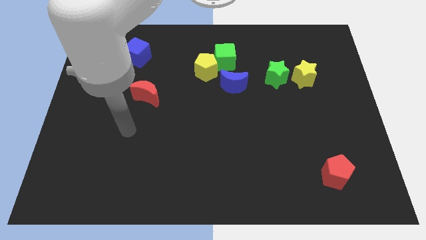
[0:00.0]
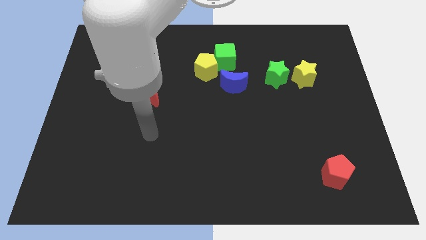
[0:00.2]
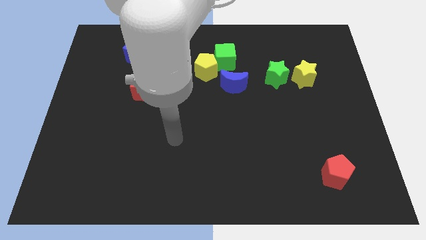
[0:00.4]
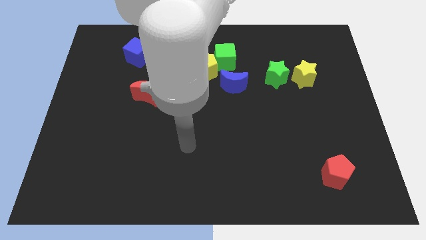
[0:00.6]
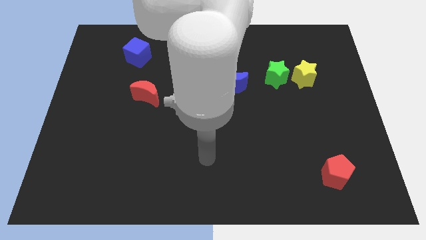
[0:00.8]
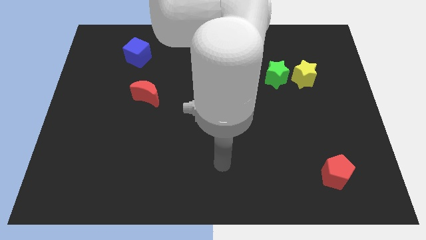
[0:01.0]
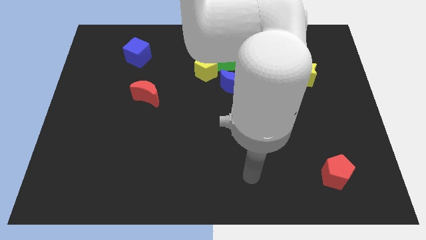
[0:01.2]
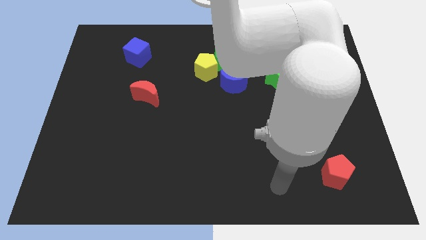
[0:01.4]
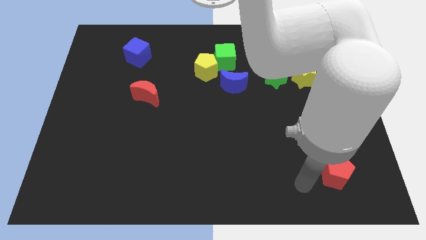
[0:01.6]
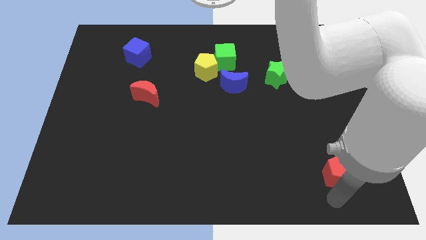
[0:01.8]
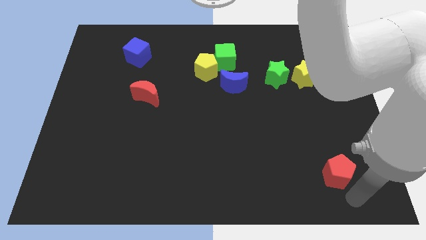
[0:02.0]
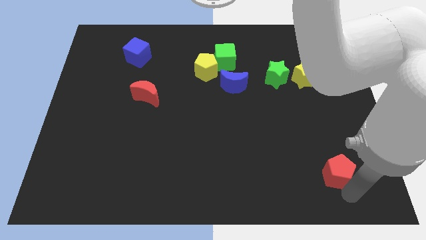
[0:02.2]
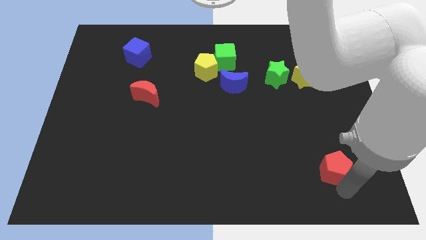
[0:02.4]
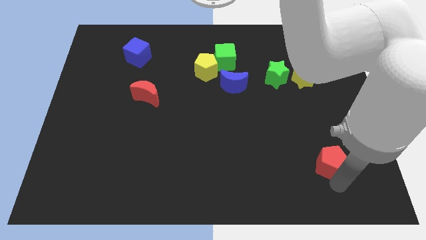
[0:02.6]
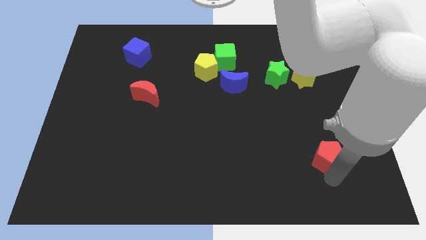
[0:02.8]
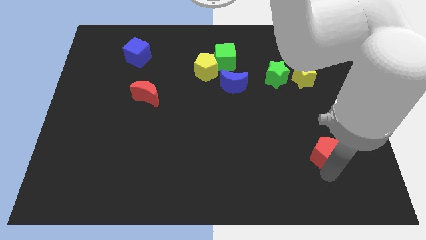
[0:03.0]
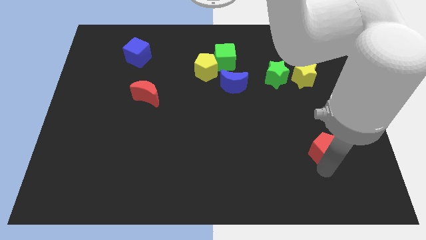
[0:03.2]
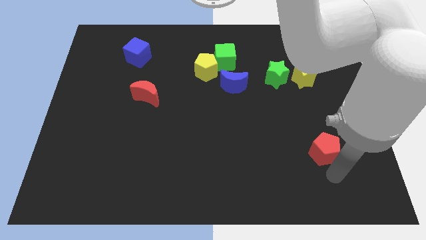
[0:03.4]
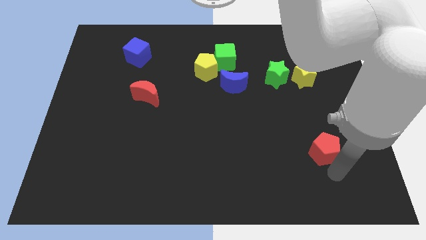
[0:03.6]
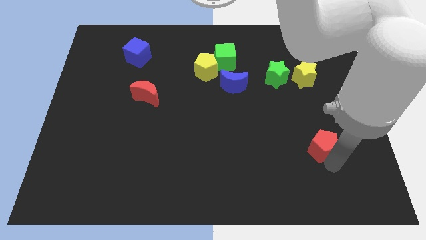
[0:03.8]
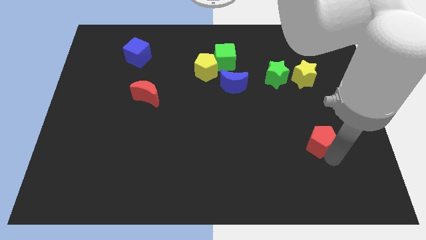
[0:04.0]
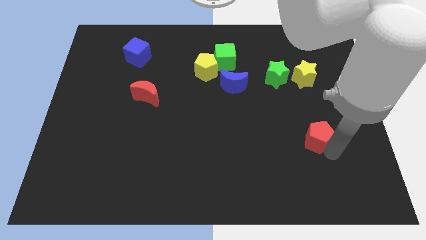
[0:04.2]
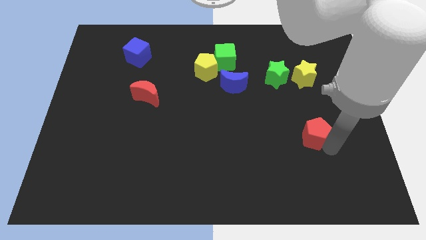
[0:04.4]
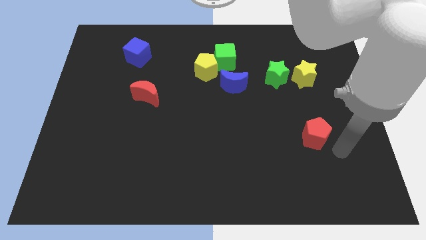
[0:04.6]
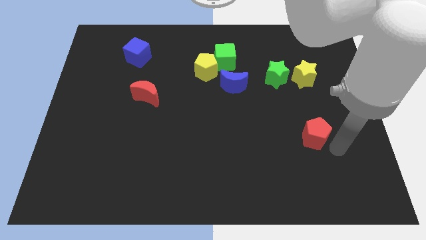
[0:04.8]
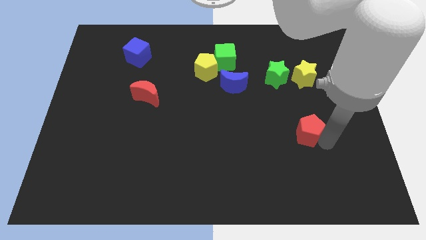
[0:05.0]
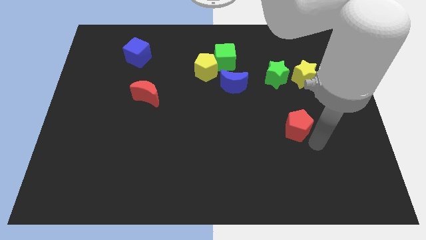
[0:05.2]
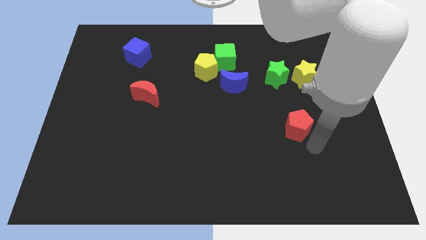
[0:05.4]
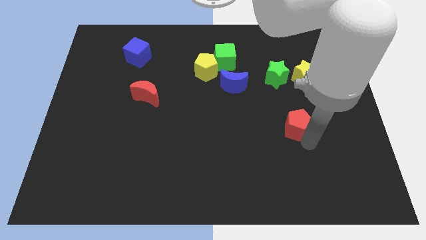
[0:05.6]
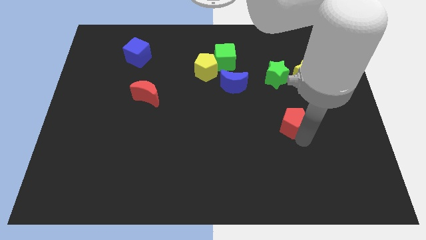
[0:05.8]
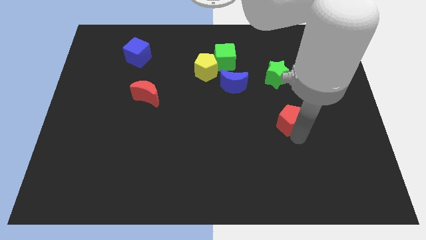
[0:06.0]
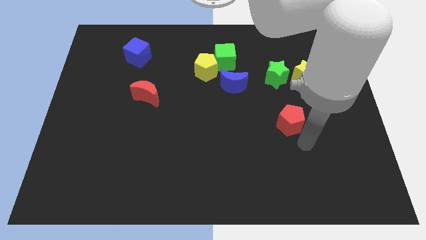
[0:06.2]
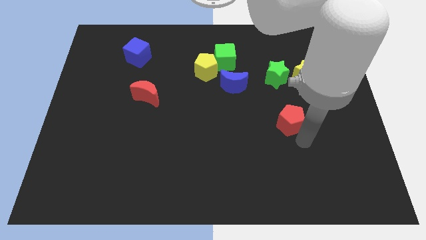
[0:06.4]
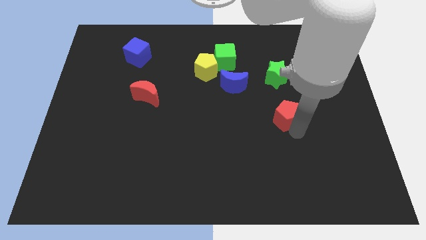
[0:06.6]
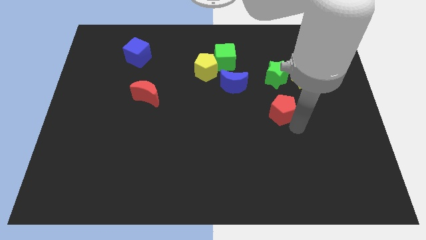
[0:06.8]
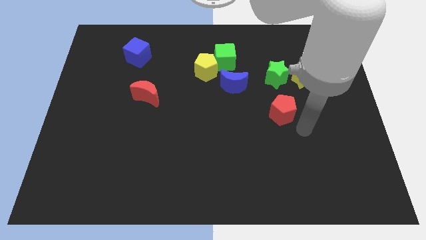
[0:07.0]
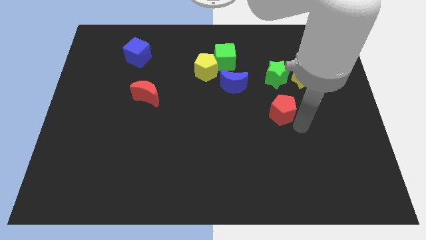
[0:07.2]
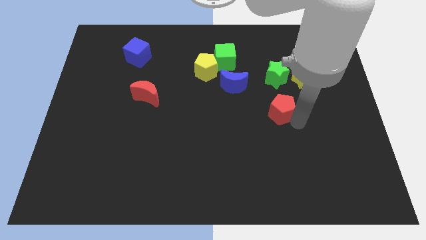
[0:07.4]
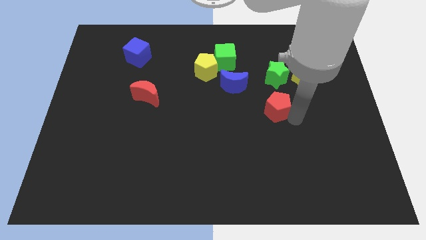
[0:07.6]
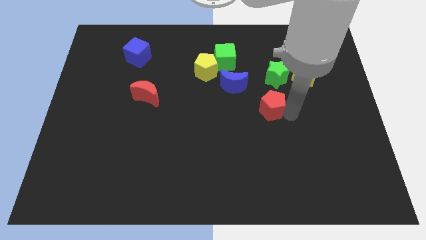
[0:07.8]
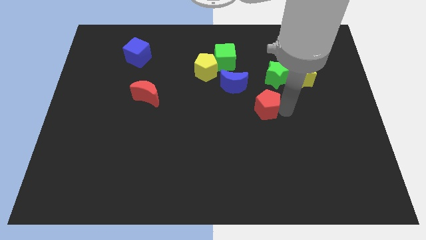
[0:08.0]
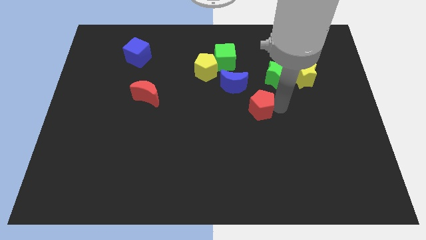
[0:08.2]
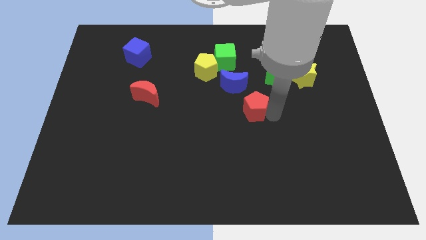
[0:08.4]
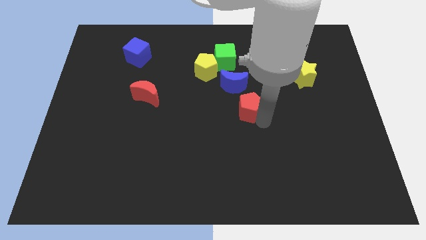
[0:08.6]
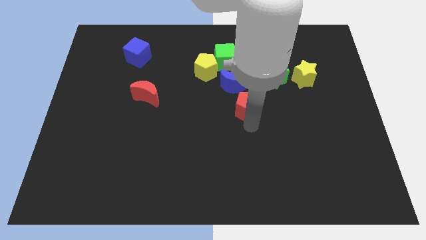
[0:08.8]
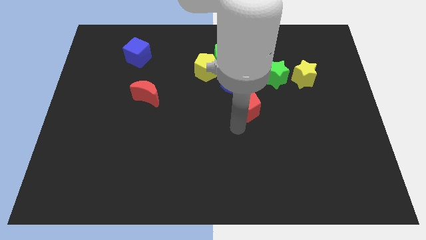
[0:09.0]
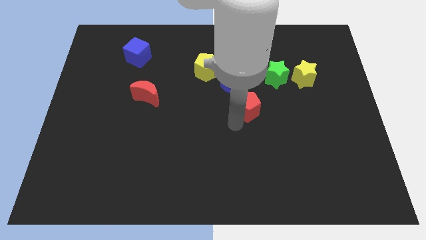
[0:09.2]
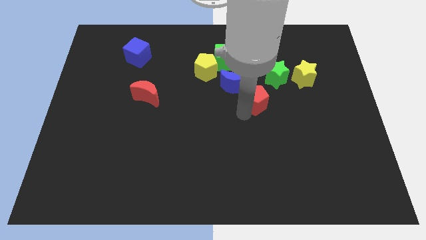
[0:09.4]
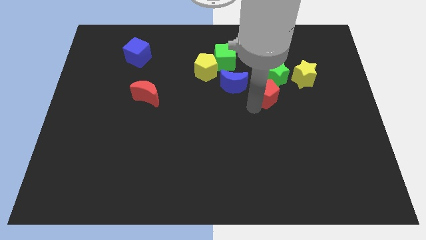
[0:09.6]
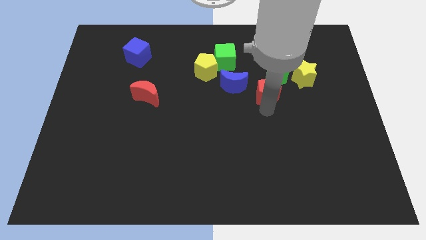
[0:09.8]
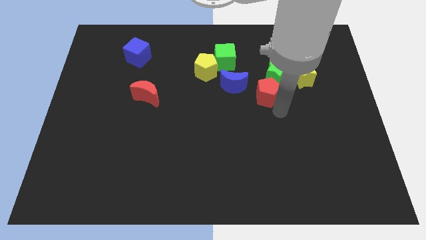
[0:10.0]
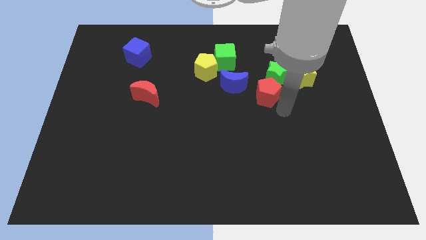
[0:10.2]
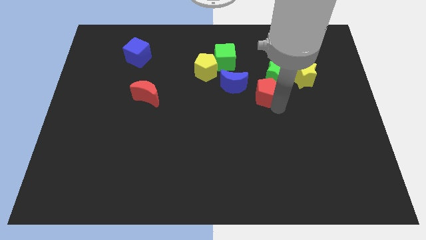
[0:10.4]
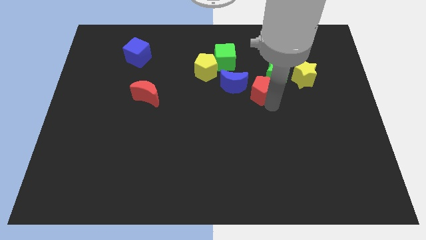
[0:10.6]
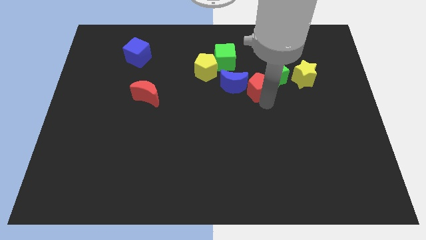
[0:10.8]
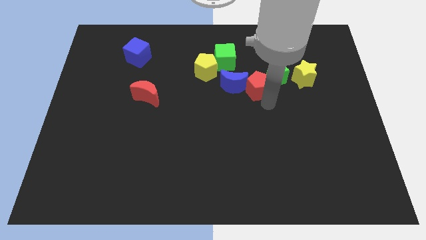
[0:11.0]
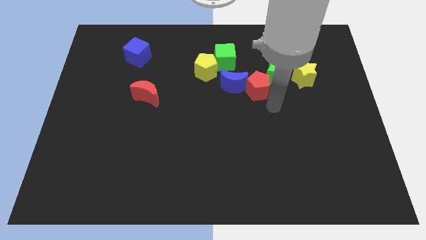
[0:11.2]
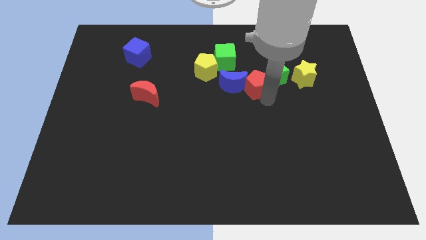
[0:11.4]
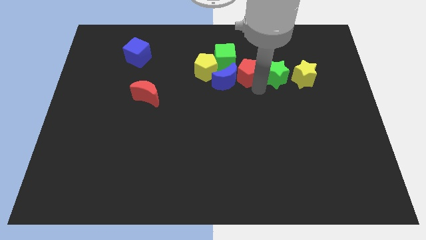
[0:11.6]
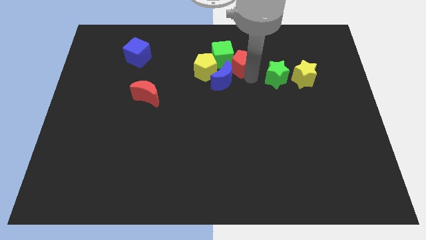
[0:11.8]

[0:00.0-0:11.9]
move the red pentagon next to the green cube

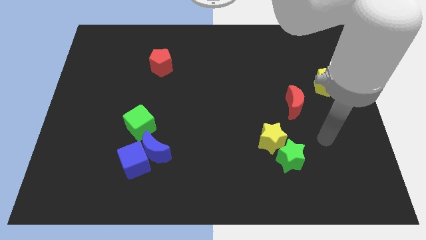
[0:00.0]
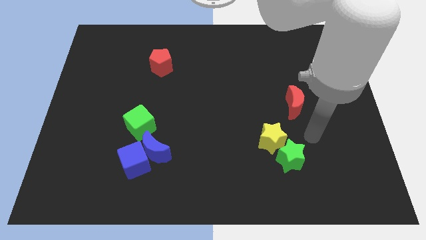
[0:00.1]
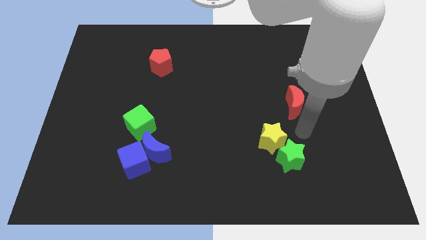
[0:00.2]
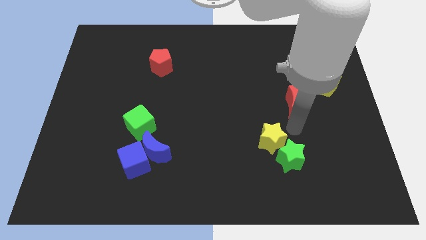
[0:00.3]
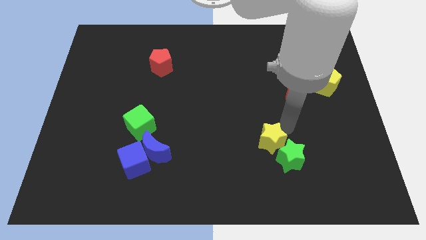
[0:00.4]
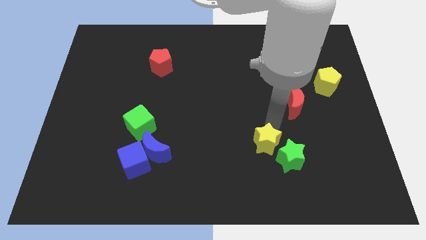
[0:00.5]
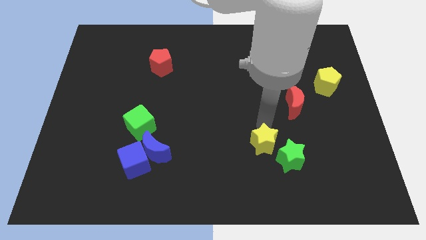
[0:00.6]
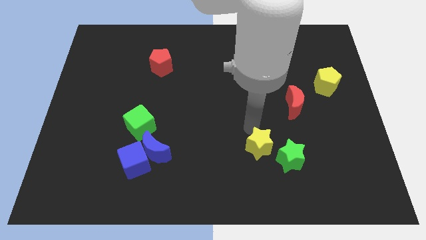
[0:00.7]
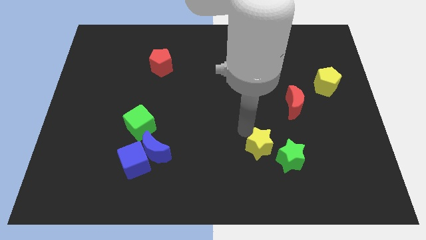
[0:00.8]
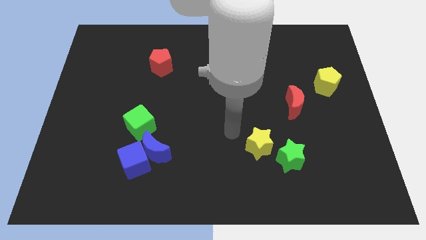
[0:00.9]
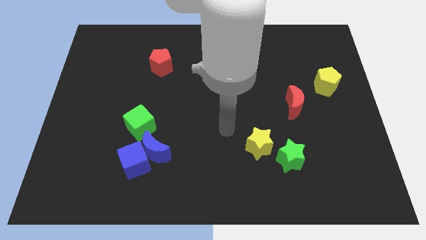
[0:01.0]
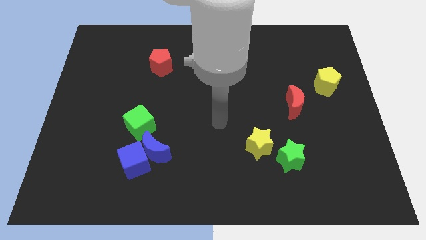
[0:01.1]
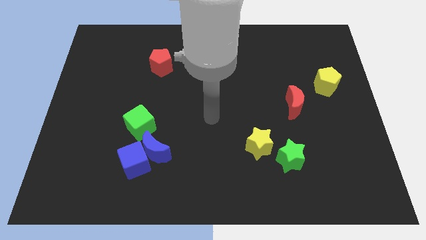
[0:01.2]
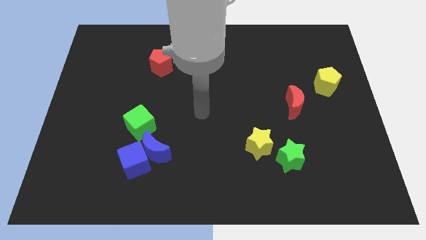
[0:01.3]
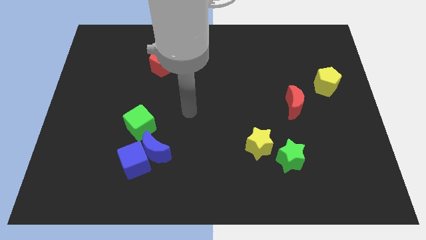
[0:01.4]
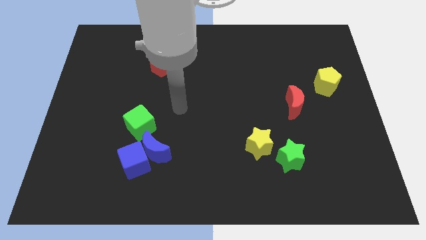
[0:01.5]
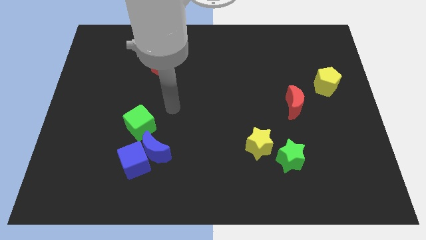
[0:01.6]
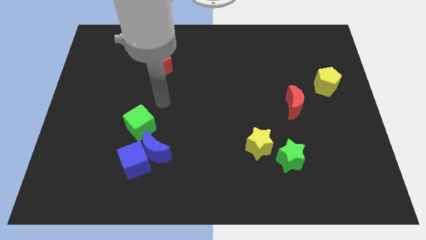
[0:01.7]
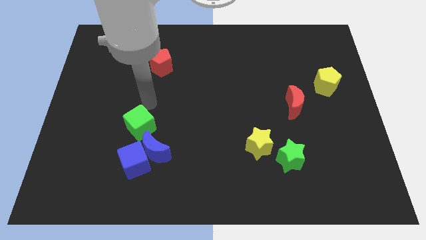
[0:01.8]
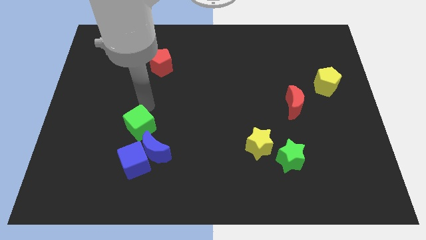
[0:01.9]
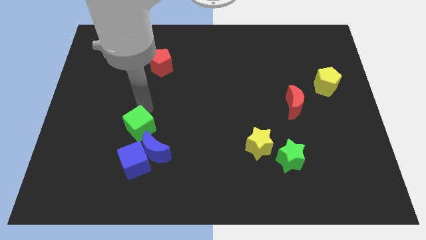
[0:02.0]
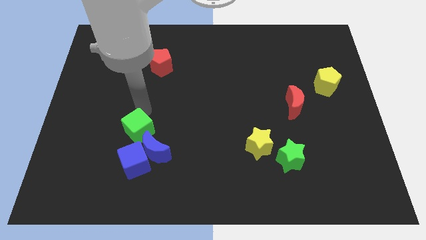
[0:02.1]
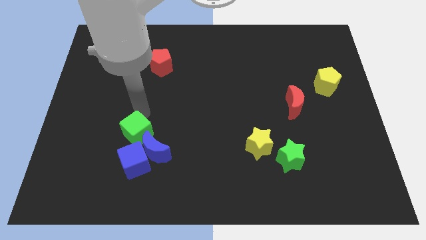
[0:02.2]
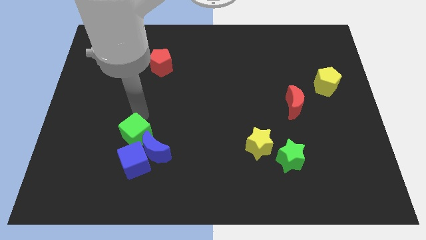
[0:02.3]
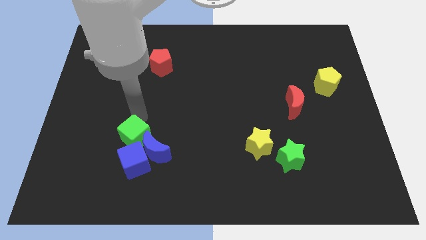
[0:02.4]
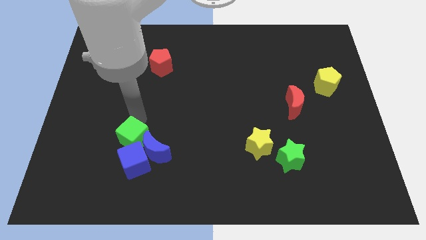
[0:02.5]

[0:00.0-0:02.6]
put the green cube towards the blue cube
